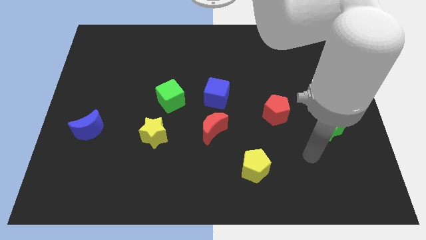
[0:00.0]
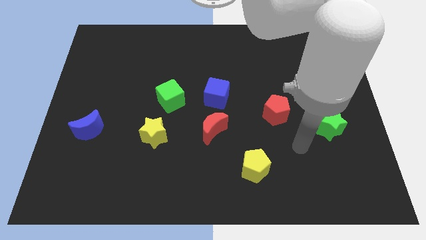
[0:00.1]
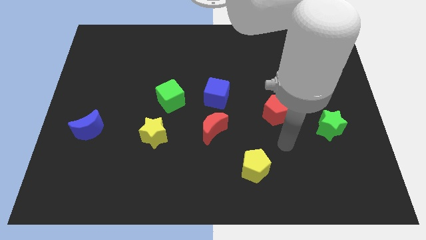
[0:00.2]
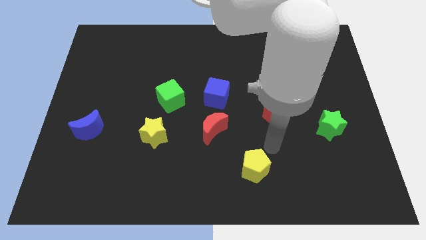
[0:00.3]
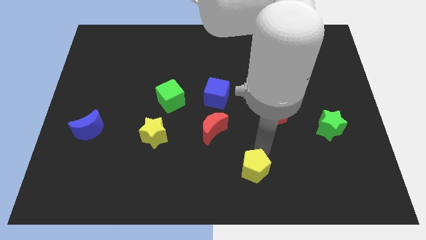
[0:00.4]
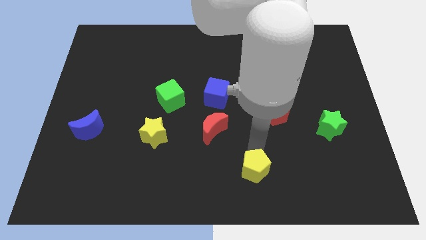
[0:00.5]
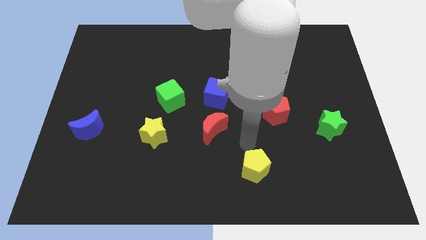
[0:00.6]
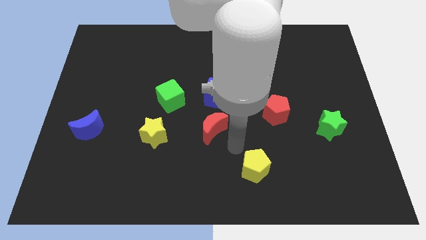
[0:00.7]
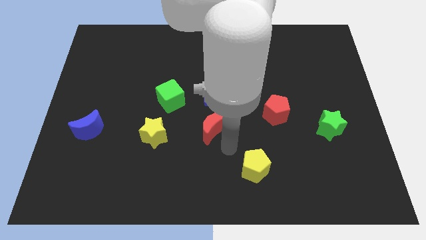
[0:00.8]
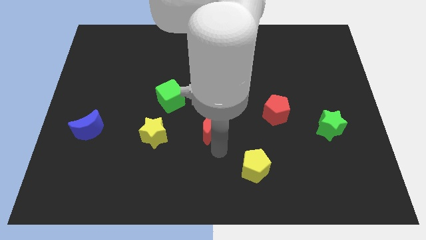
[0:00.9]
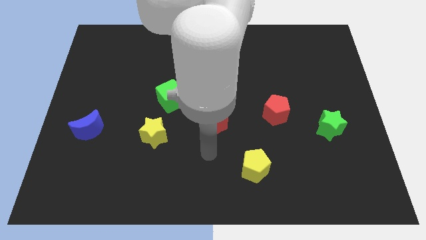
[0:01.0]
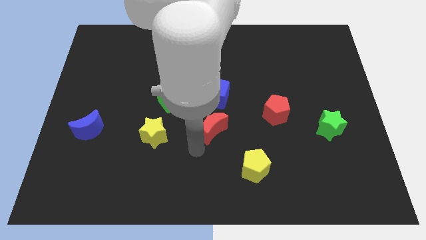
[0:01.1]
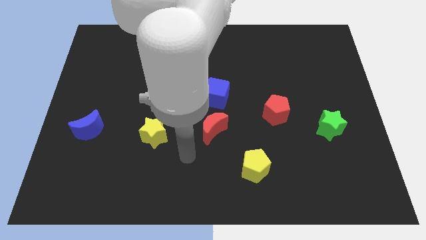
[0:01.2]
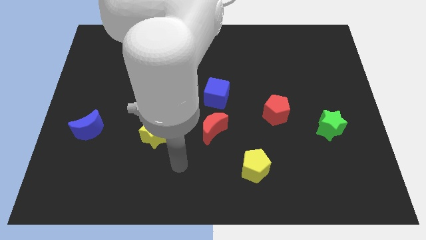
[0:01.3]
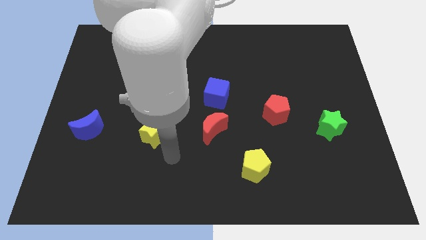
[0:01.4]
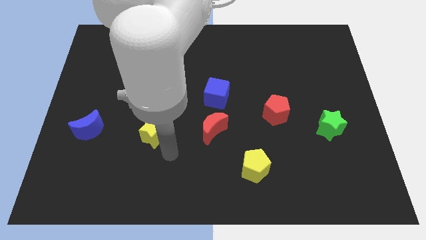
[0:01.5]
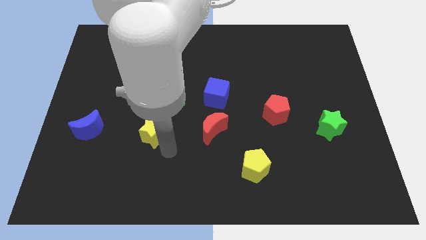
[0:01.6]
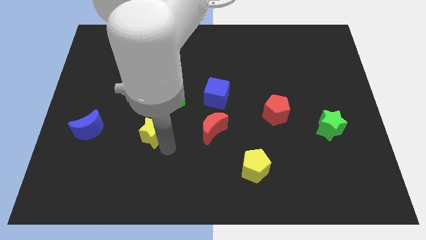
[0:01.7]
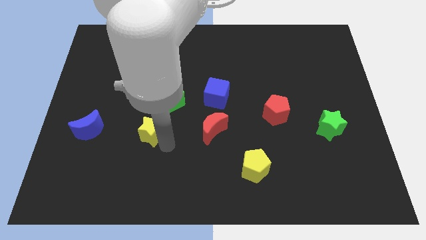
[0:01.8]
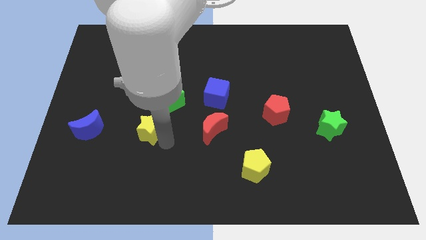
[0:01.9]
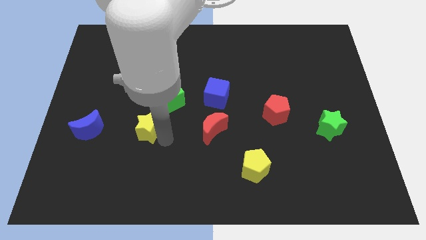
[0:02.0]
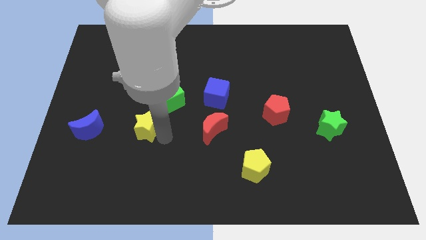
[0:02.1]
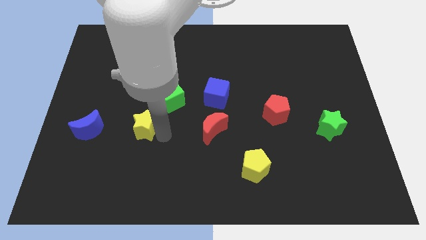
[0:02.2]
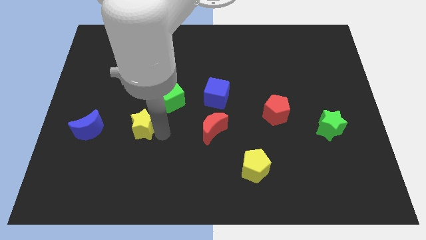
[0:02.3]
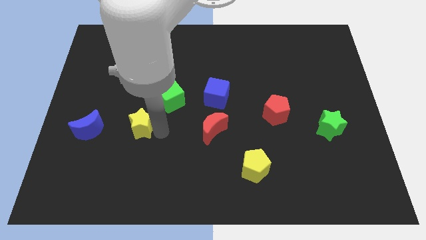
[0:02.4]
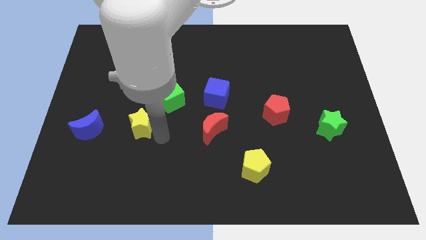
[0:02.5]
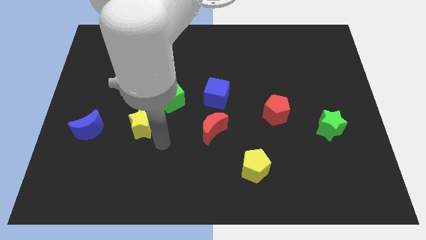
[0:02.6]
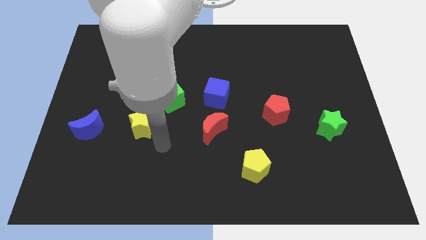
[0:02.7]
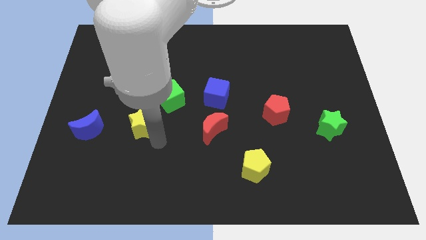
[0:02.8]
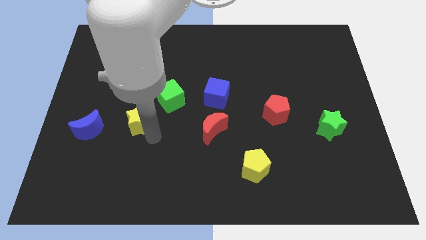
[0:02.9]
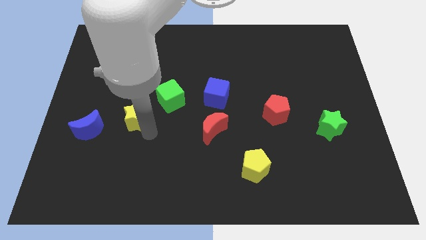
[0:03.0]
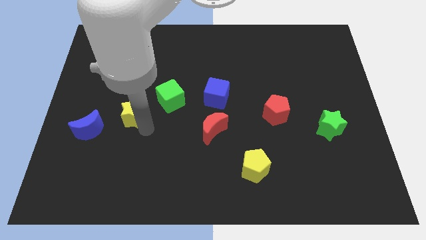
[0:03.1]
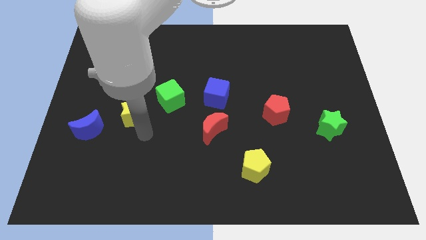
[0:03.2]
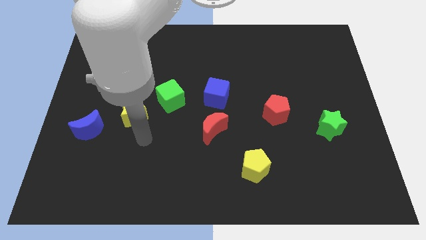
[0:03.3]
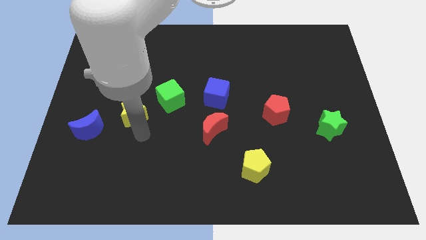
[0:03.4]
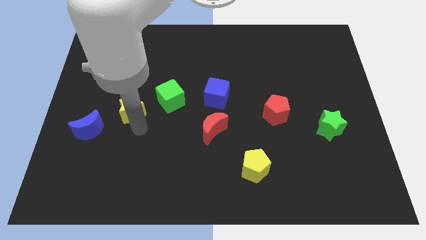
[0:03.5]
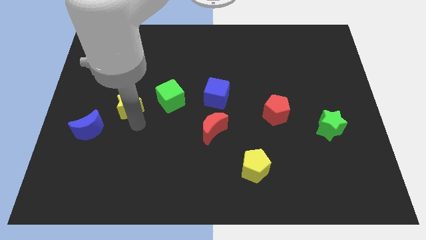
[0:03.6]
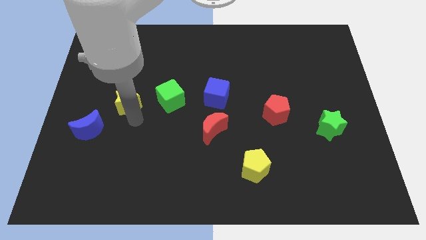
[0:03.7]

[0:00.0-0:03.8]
move the yellow star a bit up

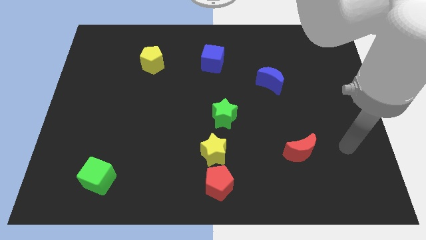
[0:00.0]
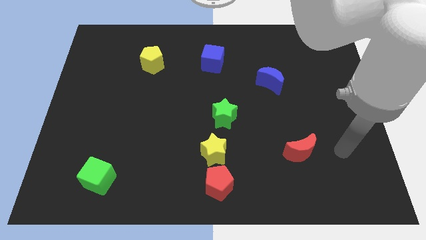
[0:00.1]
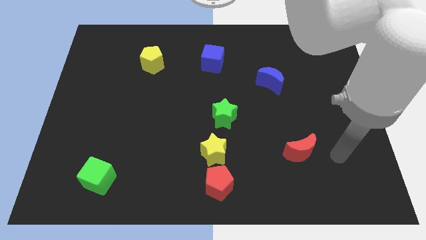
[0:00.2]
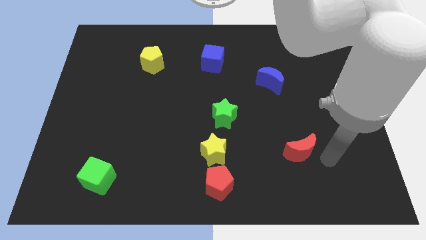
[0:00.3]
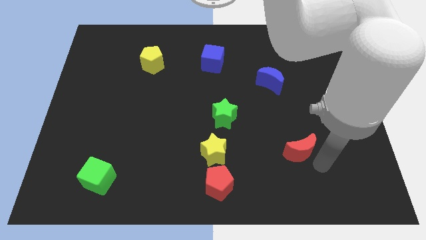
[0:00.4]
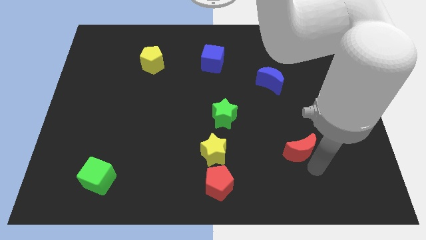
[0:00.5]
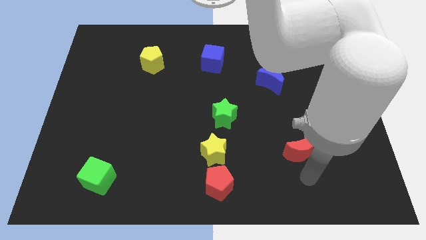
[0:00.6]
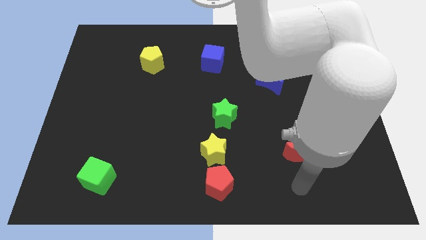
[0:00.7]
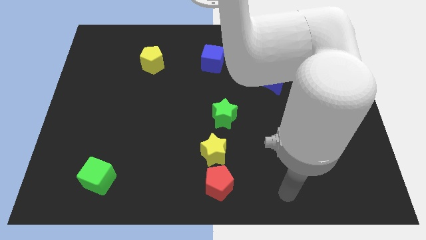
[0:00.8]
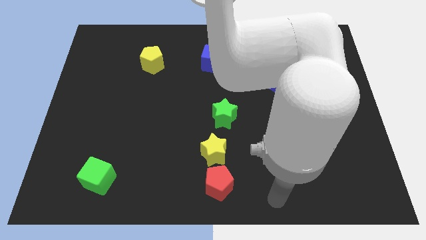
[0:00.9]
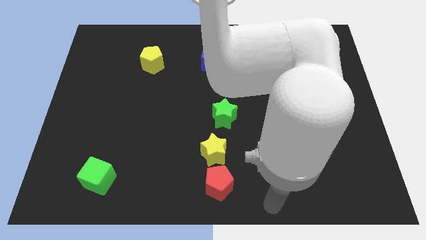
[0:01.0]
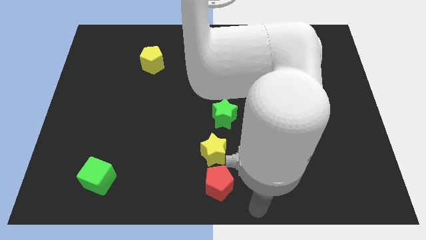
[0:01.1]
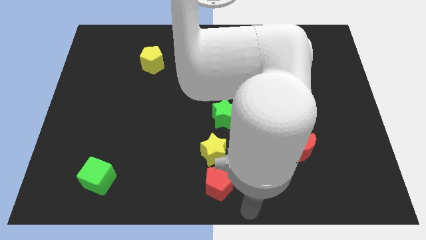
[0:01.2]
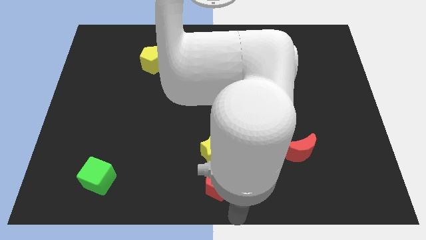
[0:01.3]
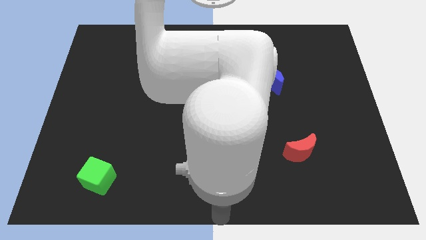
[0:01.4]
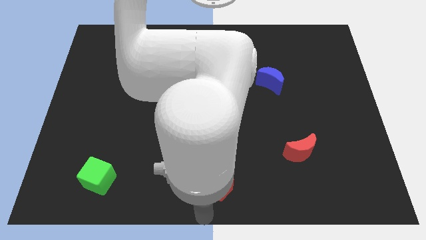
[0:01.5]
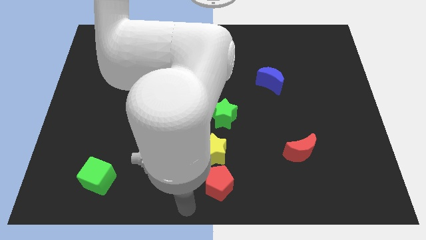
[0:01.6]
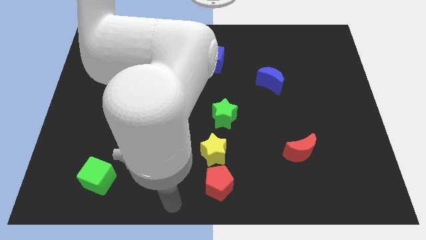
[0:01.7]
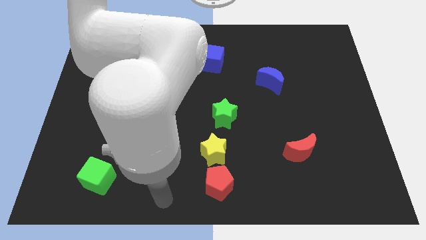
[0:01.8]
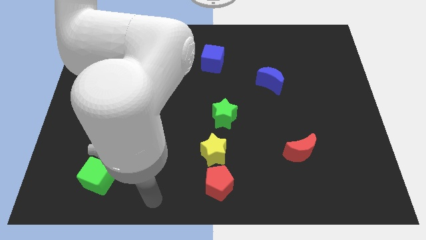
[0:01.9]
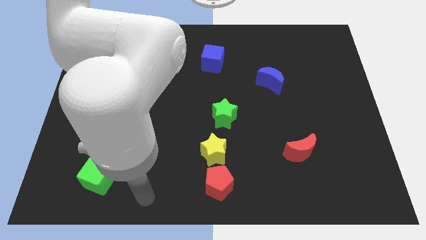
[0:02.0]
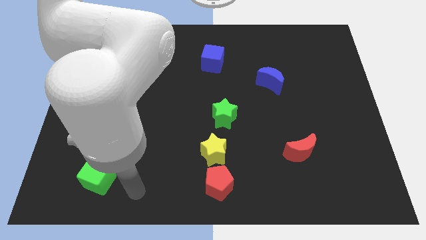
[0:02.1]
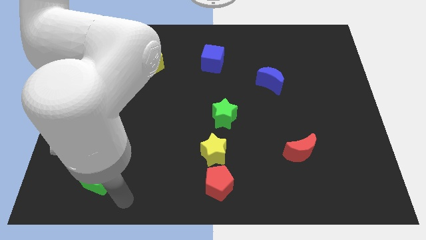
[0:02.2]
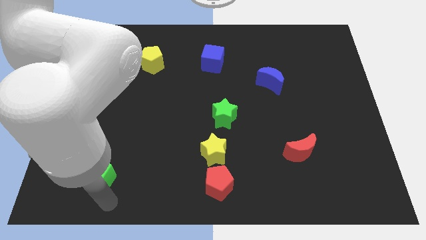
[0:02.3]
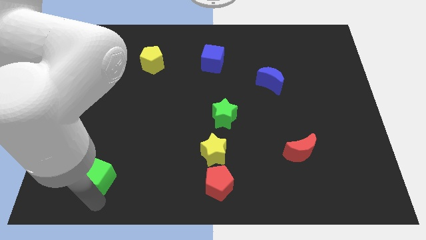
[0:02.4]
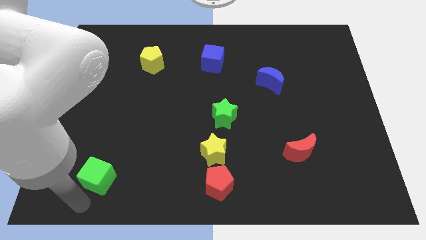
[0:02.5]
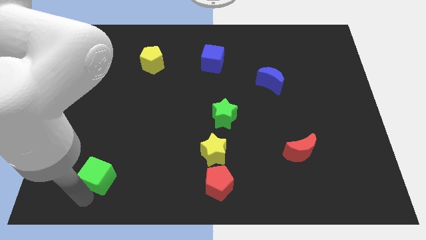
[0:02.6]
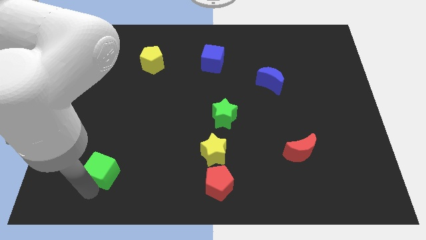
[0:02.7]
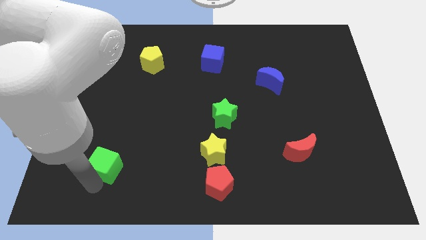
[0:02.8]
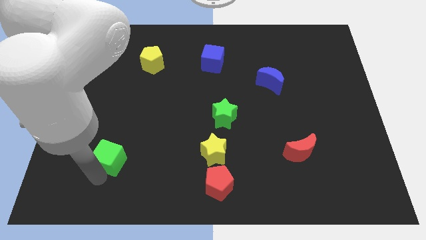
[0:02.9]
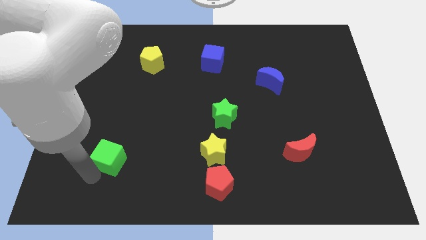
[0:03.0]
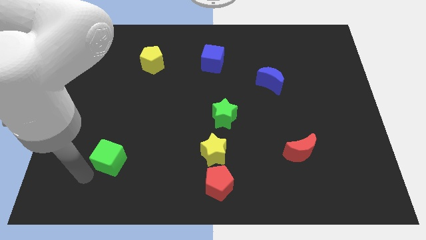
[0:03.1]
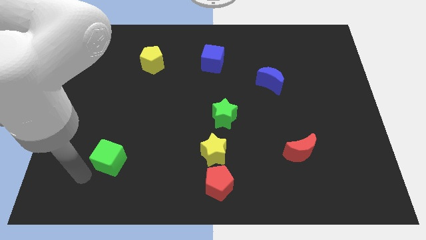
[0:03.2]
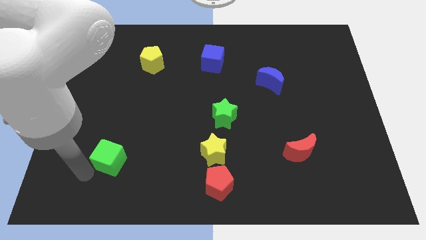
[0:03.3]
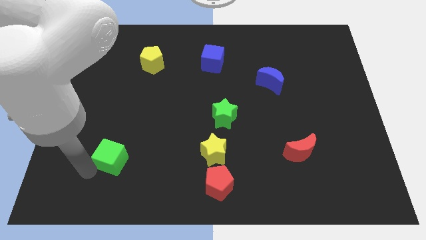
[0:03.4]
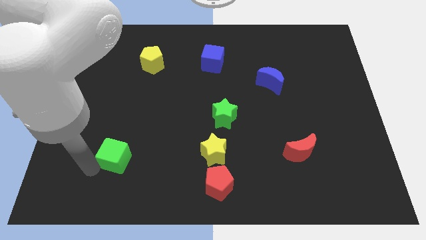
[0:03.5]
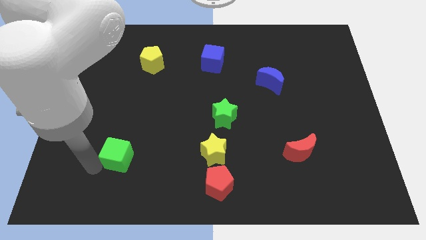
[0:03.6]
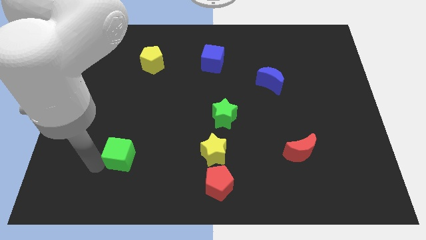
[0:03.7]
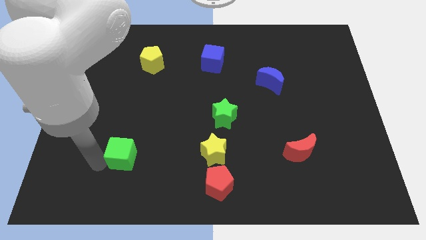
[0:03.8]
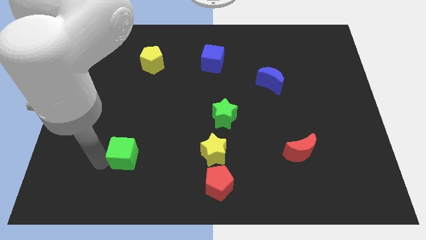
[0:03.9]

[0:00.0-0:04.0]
slide the green cube upwards and then right slightly
